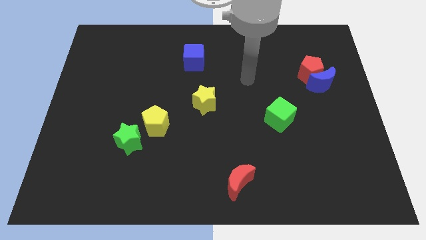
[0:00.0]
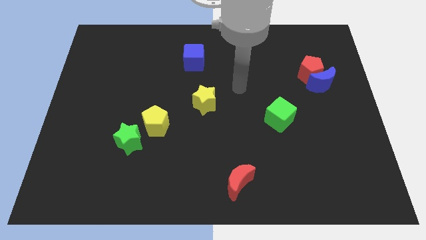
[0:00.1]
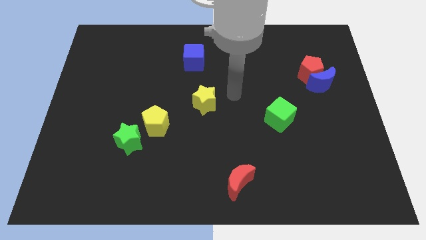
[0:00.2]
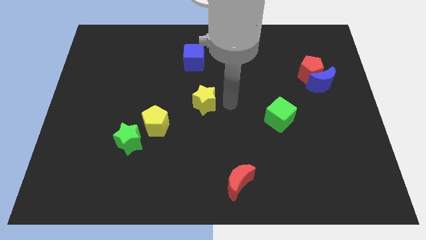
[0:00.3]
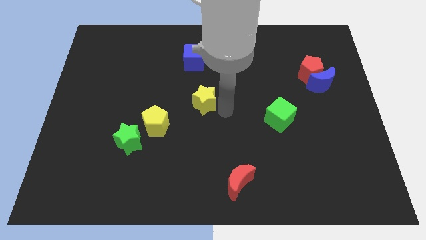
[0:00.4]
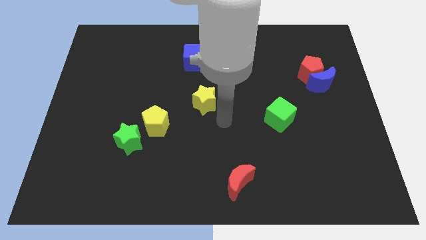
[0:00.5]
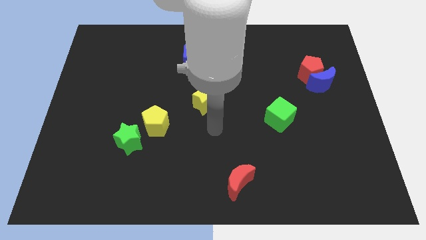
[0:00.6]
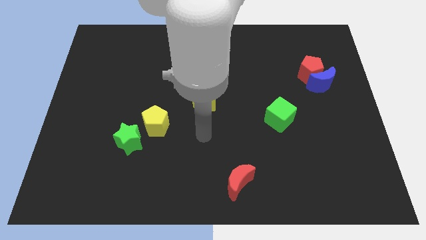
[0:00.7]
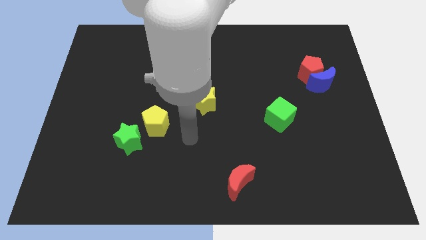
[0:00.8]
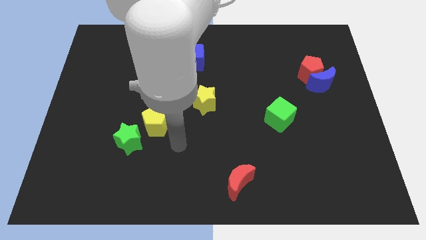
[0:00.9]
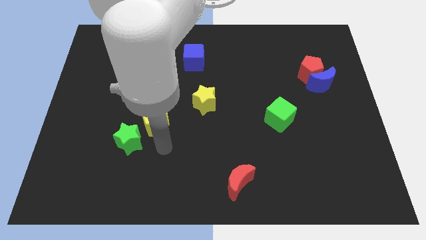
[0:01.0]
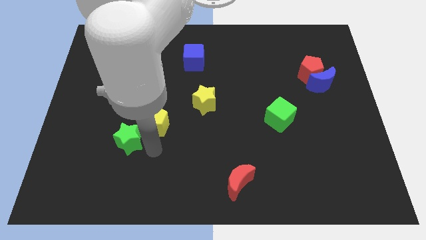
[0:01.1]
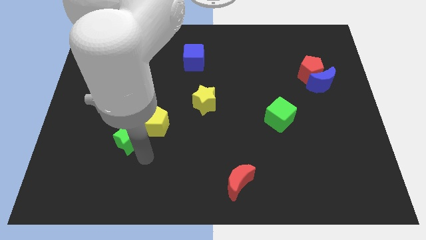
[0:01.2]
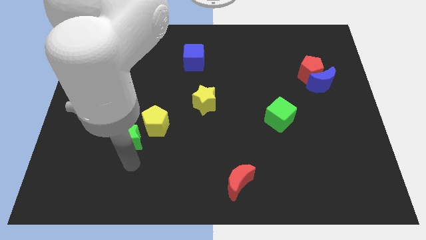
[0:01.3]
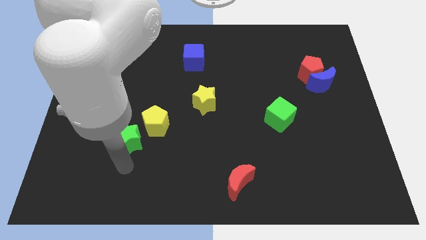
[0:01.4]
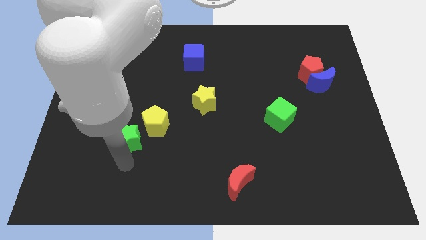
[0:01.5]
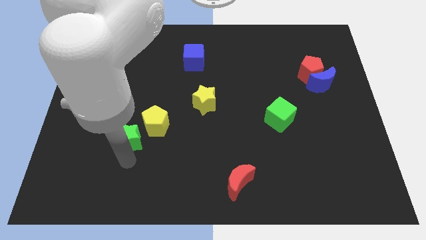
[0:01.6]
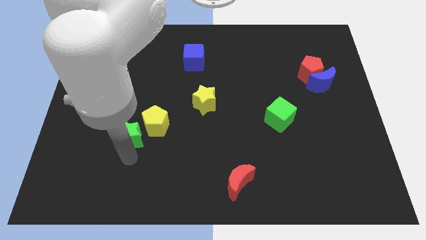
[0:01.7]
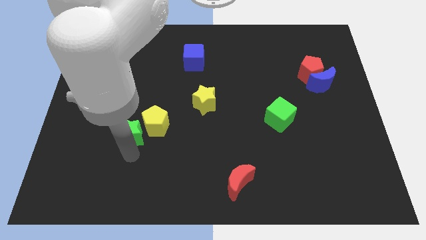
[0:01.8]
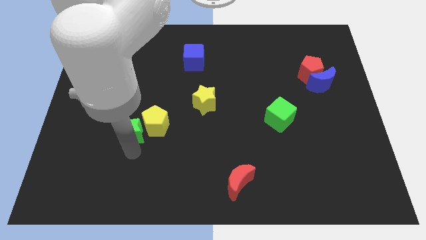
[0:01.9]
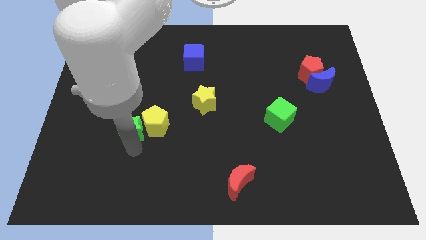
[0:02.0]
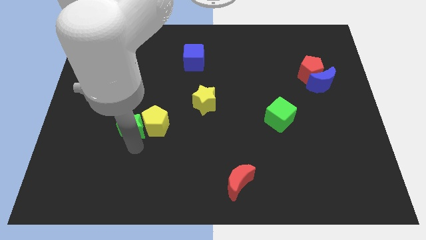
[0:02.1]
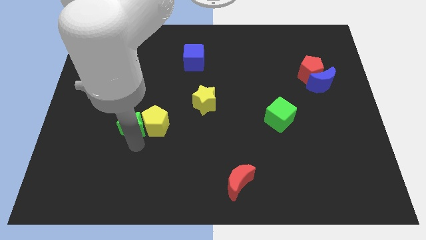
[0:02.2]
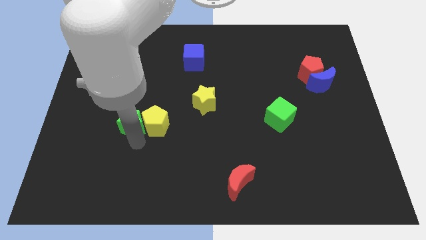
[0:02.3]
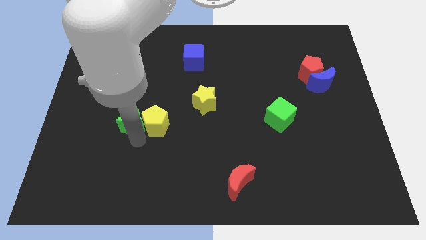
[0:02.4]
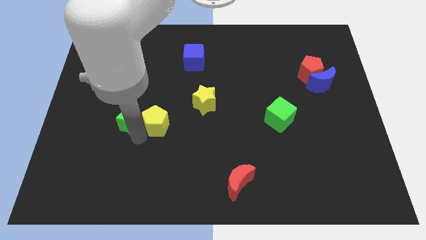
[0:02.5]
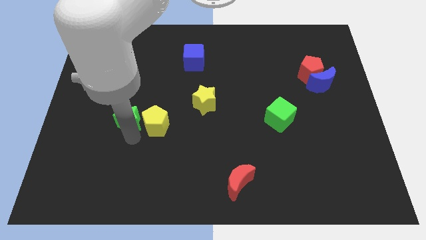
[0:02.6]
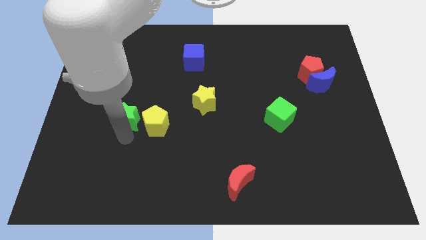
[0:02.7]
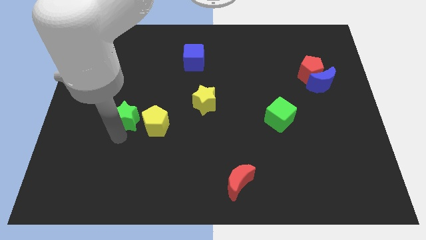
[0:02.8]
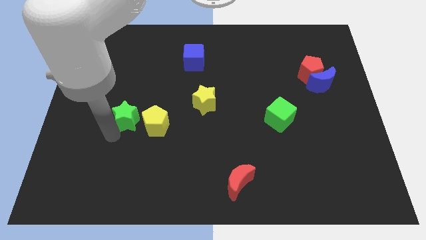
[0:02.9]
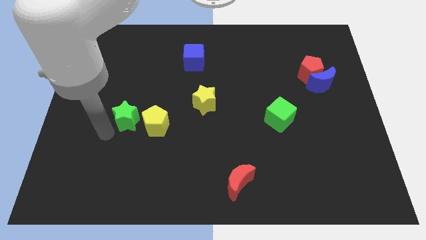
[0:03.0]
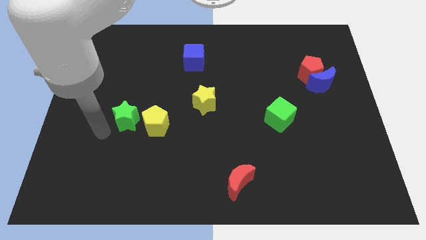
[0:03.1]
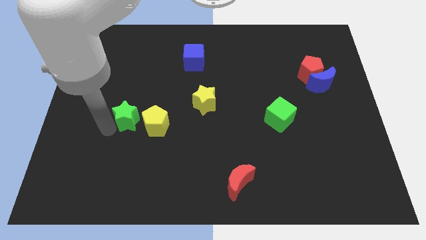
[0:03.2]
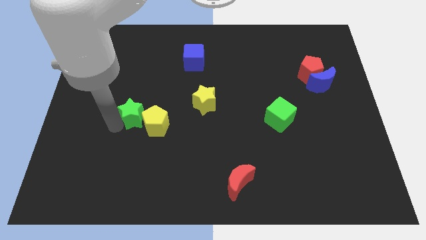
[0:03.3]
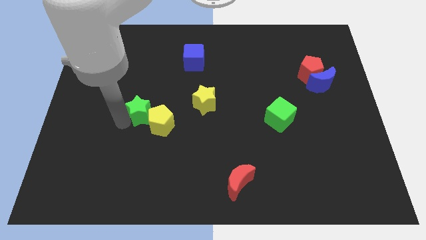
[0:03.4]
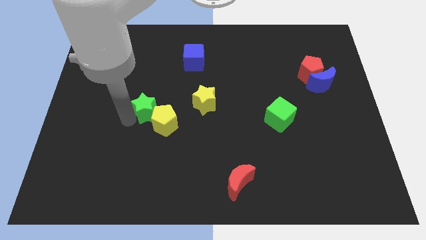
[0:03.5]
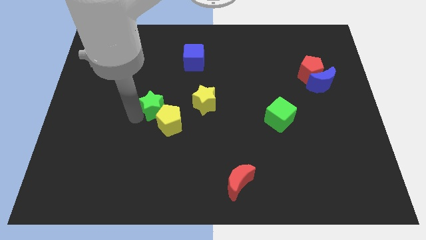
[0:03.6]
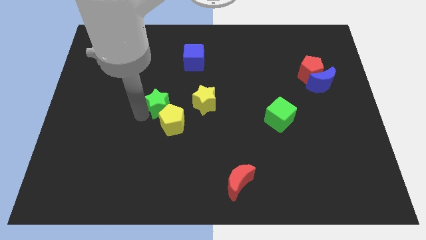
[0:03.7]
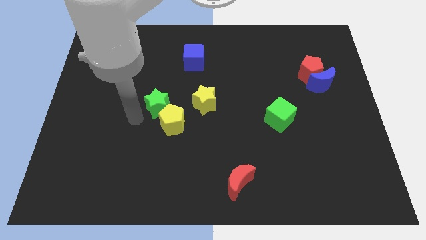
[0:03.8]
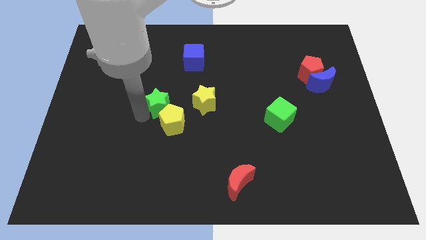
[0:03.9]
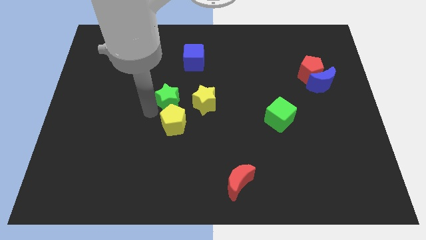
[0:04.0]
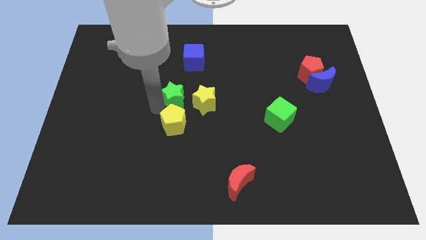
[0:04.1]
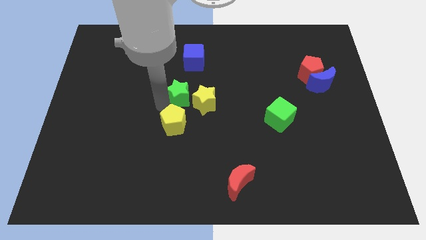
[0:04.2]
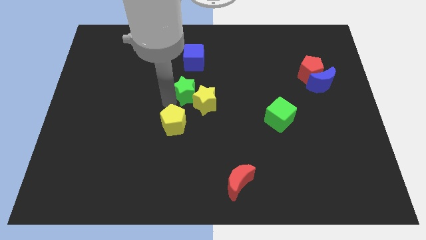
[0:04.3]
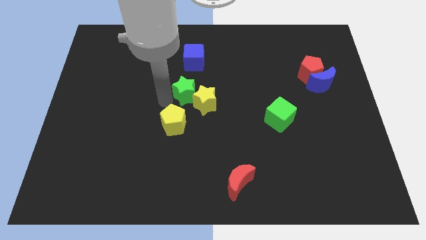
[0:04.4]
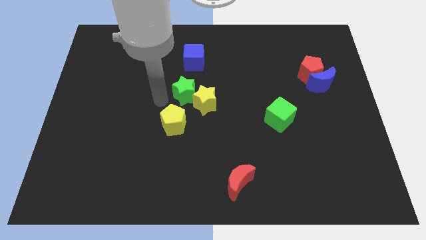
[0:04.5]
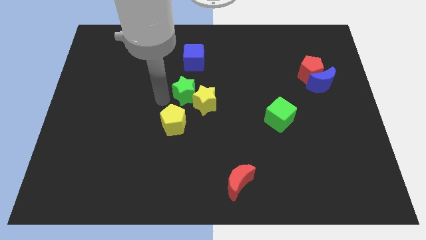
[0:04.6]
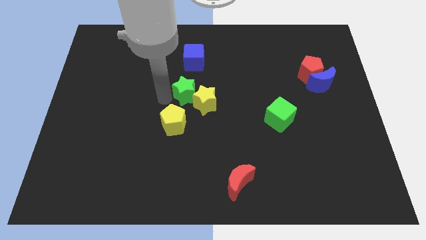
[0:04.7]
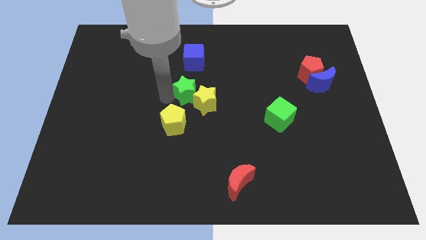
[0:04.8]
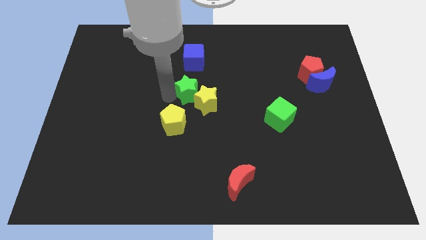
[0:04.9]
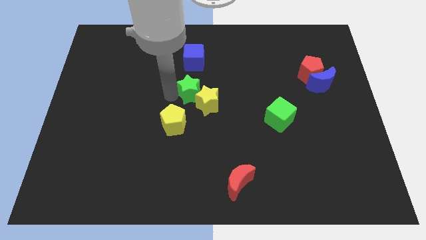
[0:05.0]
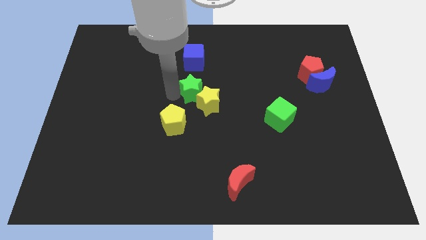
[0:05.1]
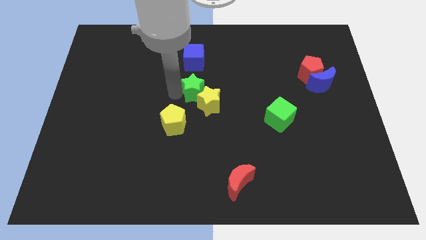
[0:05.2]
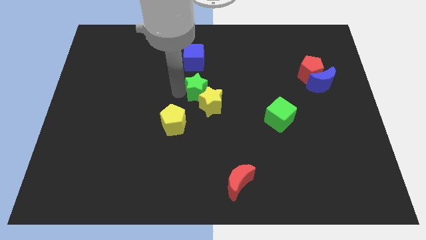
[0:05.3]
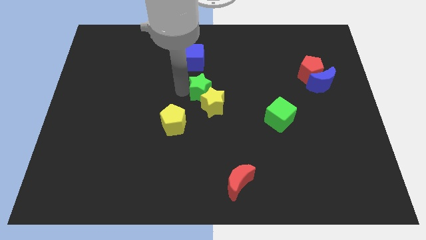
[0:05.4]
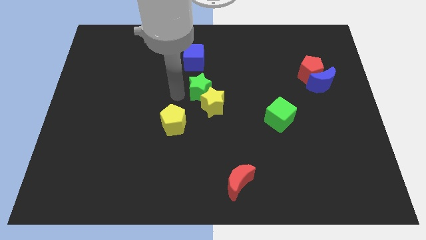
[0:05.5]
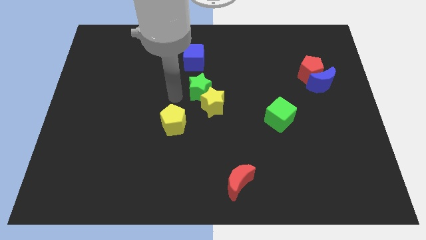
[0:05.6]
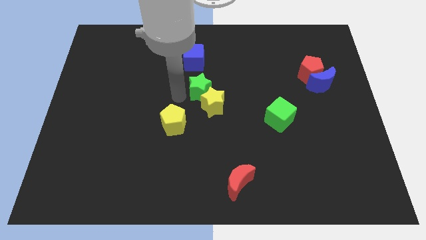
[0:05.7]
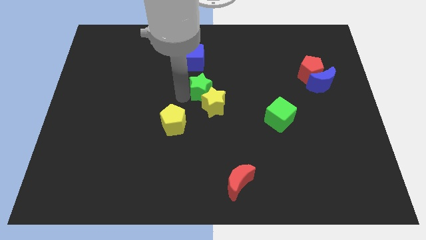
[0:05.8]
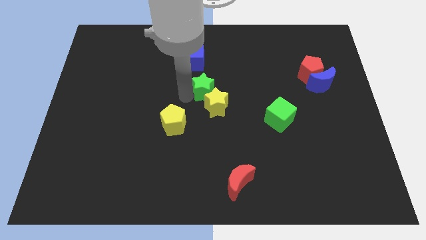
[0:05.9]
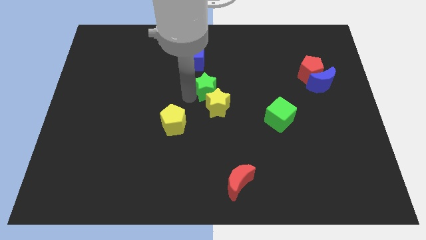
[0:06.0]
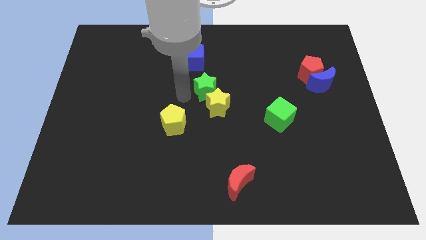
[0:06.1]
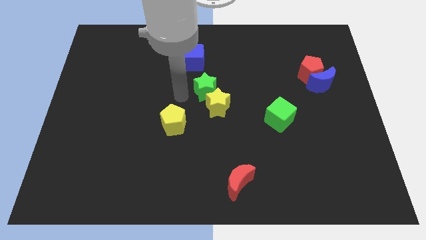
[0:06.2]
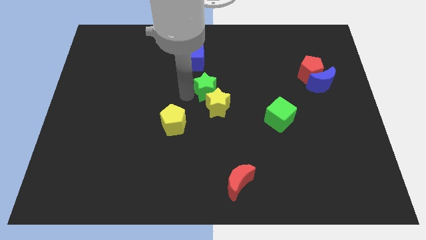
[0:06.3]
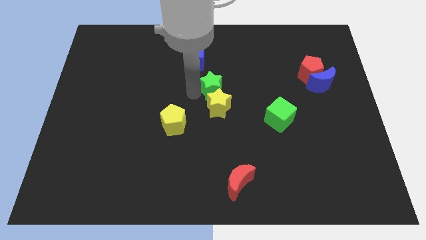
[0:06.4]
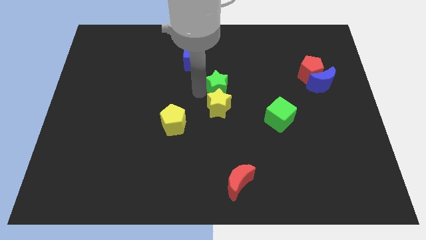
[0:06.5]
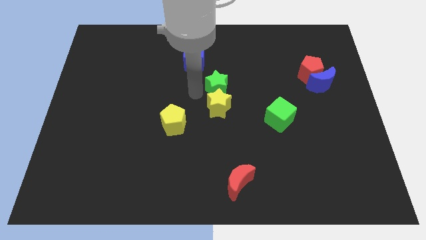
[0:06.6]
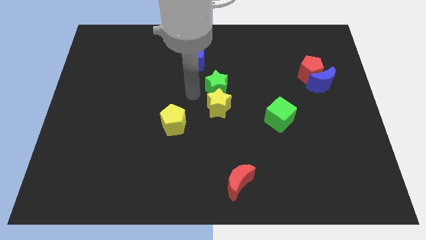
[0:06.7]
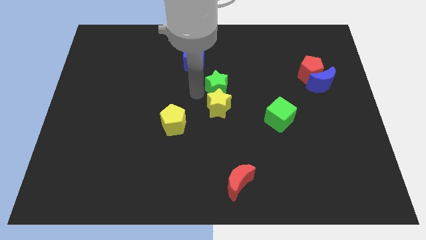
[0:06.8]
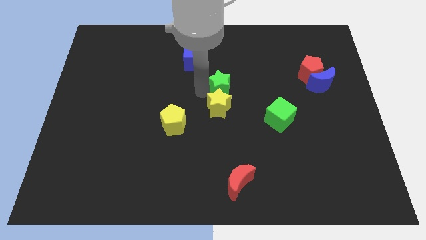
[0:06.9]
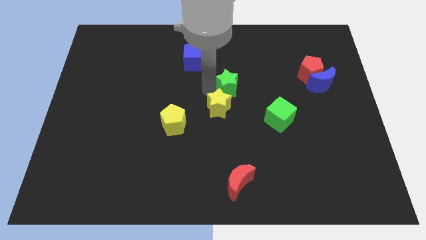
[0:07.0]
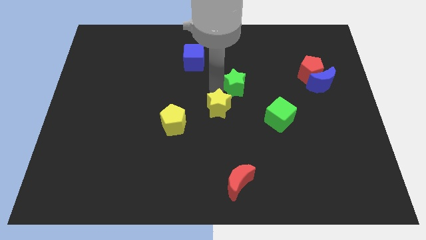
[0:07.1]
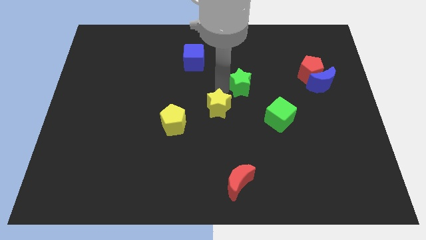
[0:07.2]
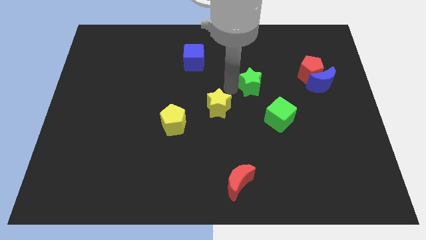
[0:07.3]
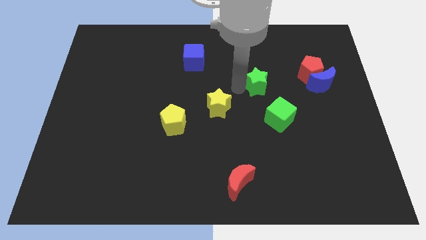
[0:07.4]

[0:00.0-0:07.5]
move the green star left of the red pentagon
